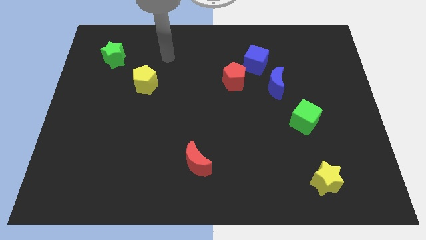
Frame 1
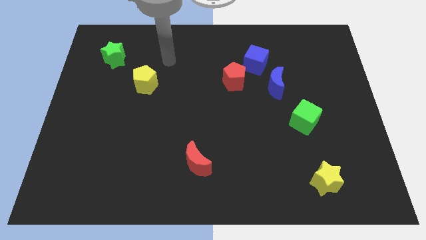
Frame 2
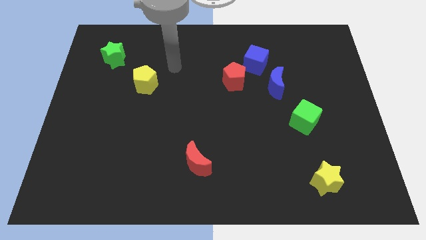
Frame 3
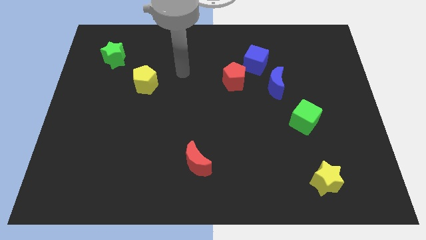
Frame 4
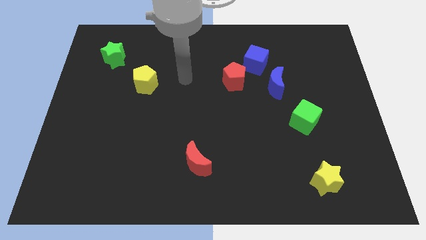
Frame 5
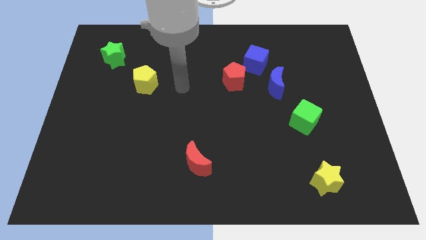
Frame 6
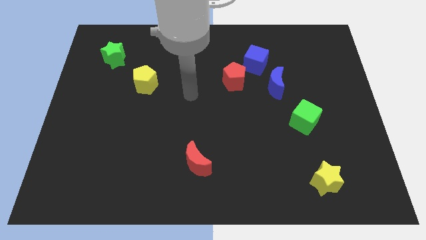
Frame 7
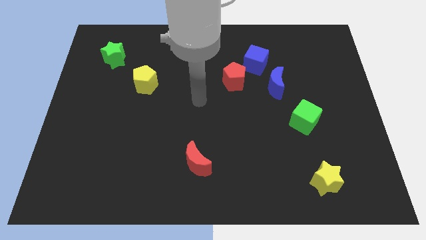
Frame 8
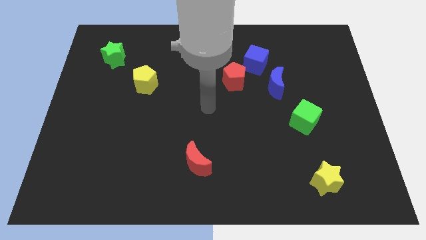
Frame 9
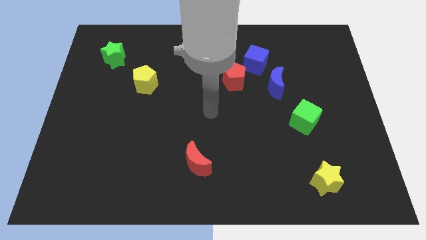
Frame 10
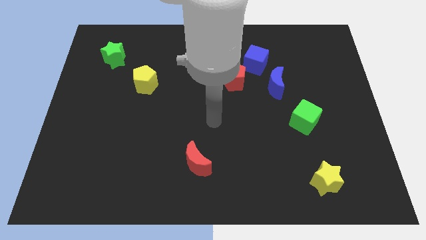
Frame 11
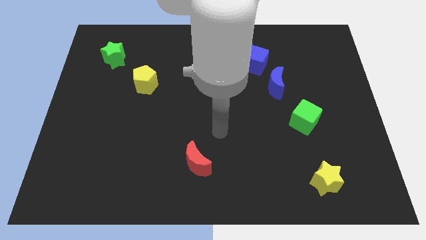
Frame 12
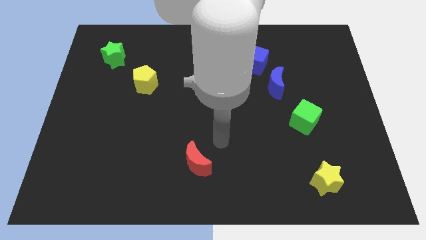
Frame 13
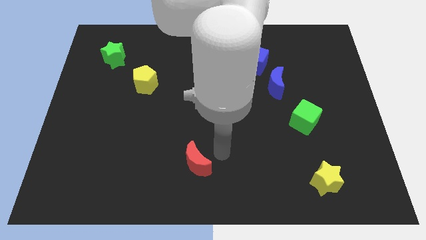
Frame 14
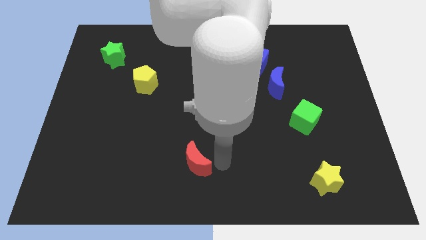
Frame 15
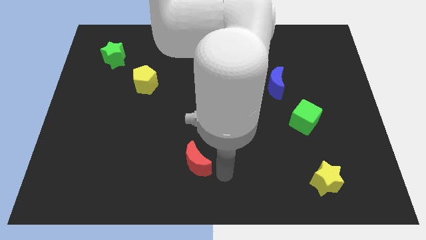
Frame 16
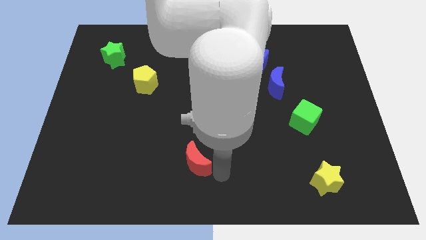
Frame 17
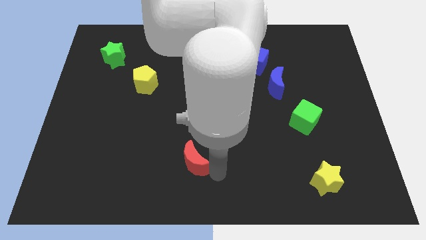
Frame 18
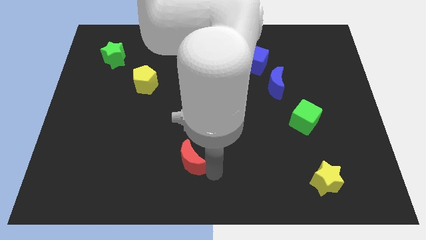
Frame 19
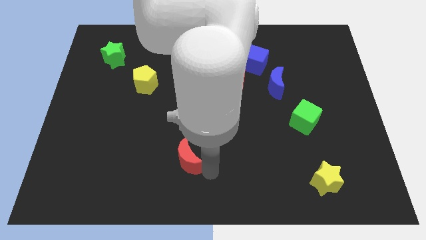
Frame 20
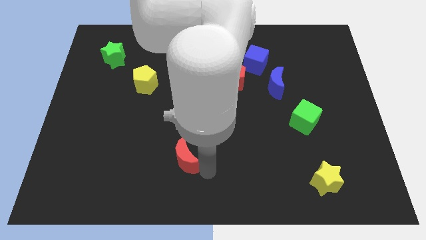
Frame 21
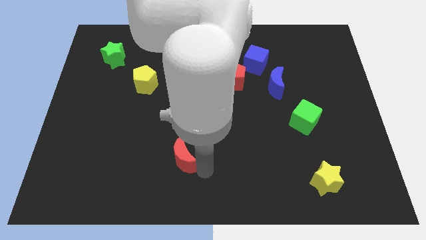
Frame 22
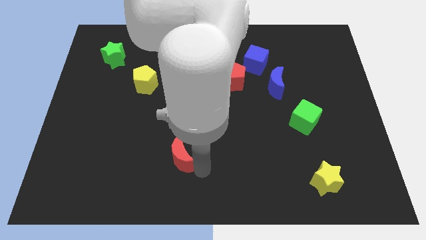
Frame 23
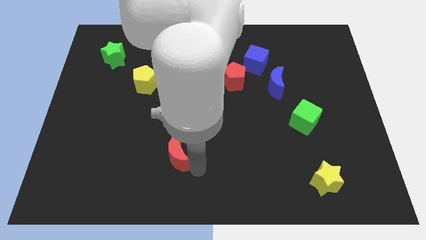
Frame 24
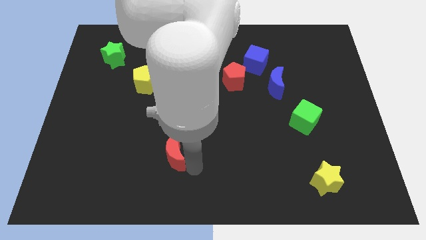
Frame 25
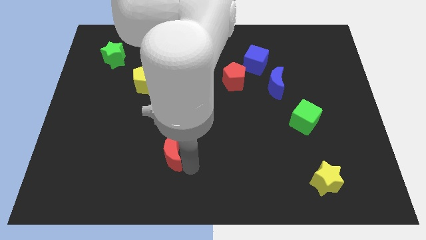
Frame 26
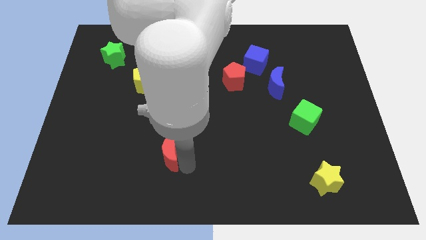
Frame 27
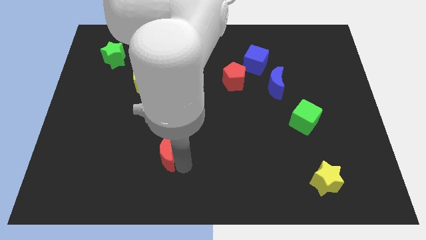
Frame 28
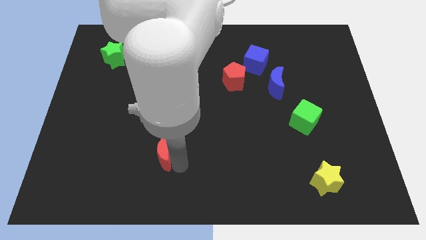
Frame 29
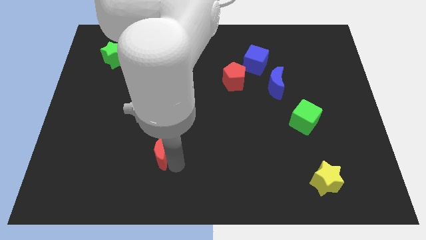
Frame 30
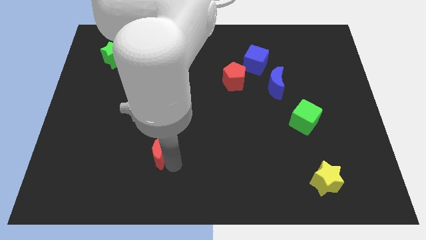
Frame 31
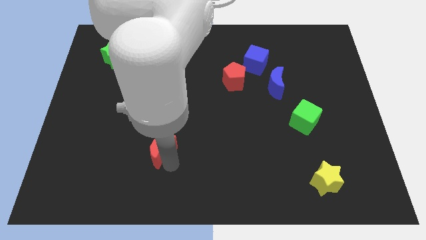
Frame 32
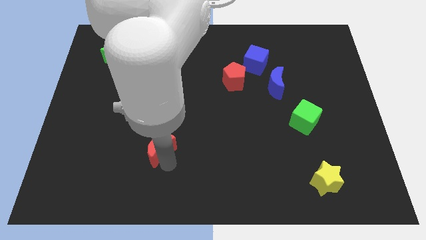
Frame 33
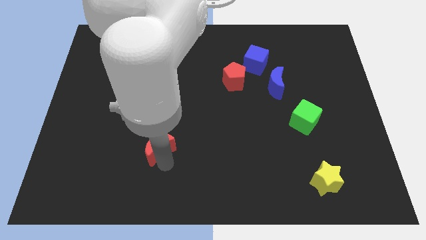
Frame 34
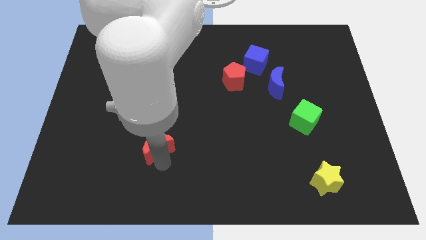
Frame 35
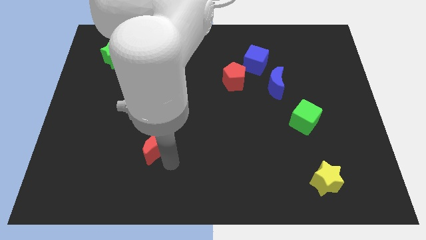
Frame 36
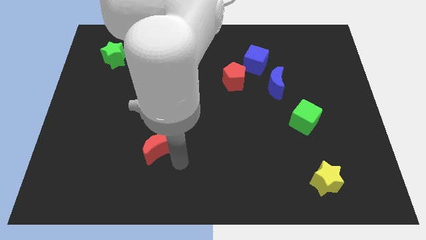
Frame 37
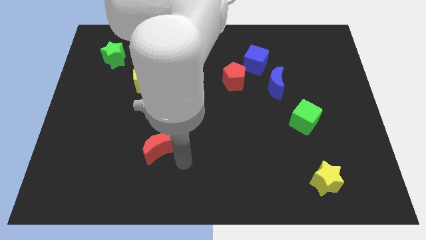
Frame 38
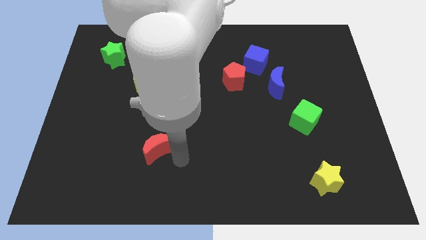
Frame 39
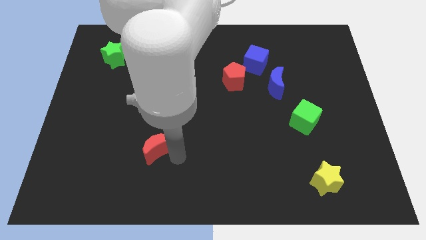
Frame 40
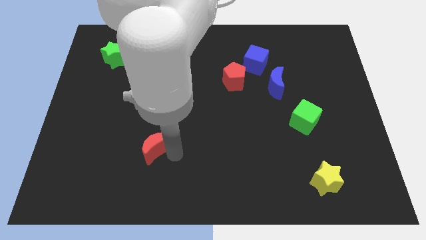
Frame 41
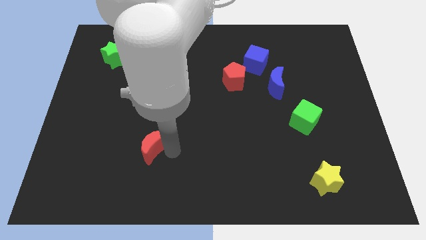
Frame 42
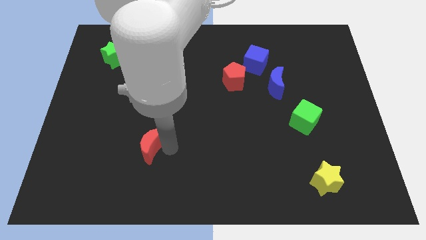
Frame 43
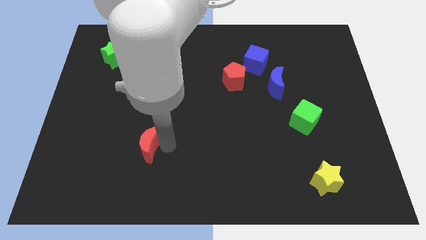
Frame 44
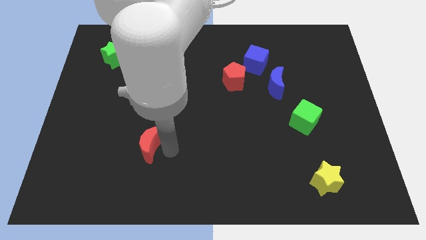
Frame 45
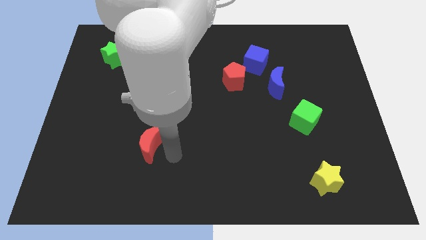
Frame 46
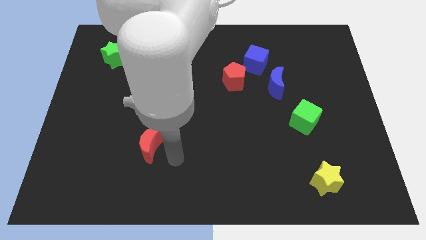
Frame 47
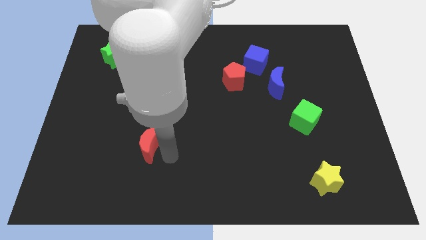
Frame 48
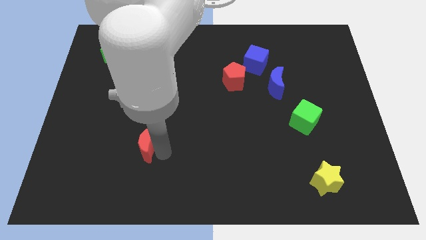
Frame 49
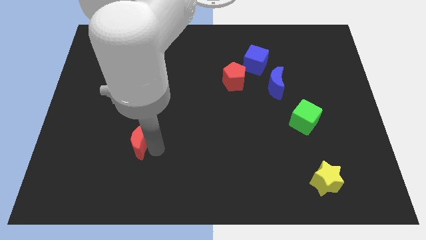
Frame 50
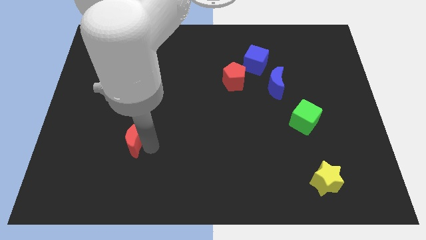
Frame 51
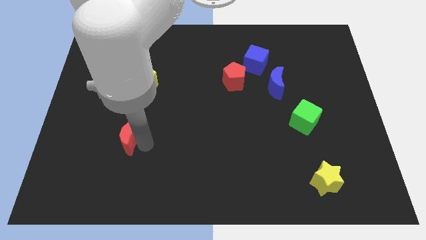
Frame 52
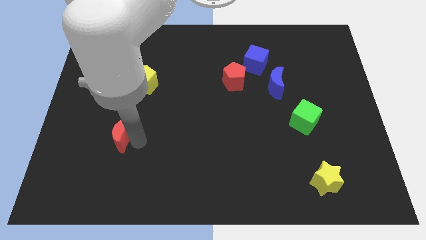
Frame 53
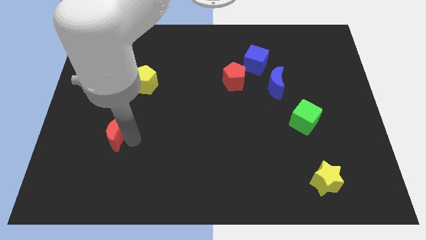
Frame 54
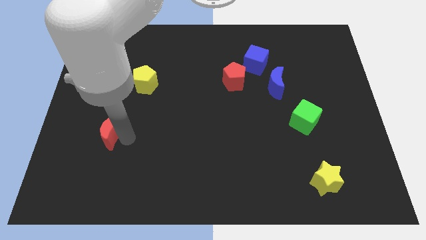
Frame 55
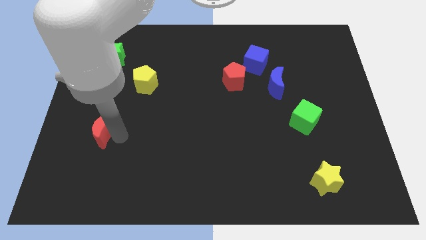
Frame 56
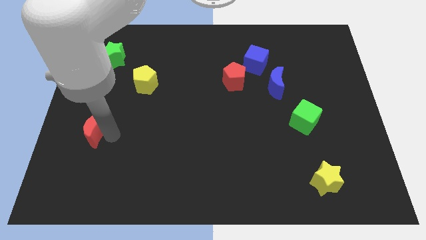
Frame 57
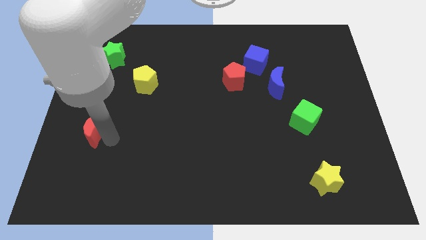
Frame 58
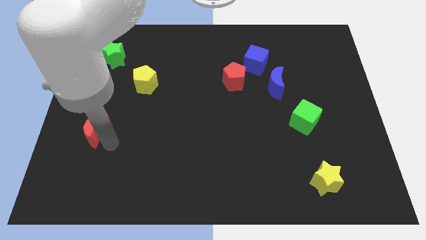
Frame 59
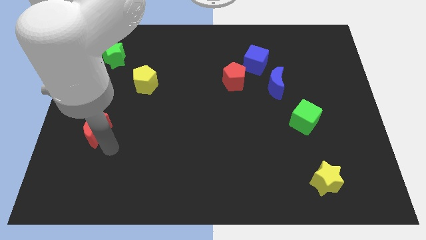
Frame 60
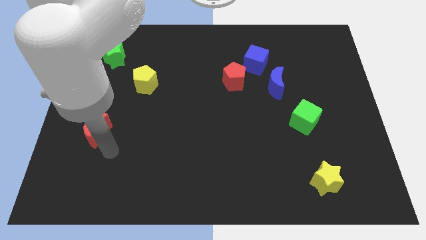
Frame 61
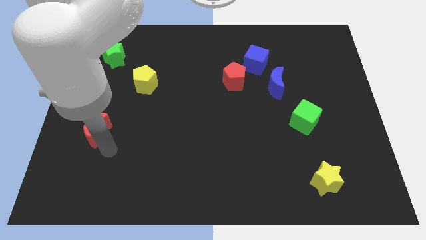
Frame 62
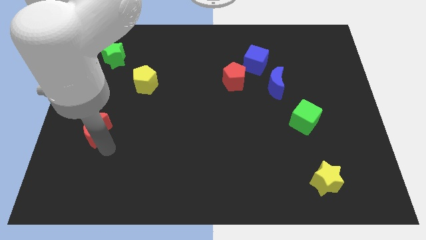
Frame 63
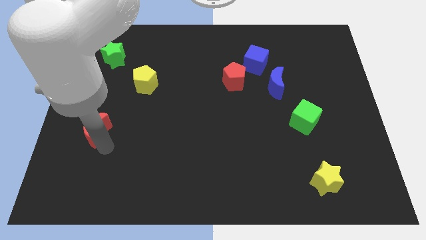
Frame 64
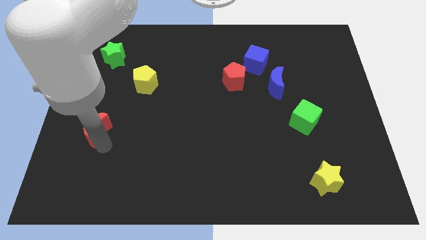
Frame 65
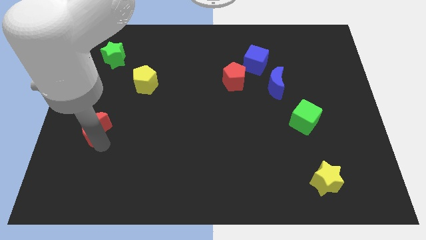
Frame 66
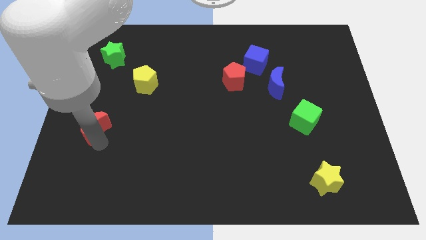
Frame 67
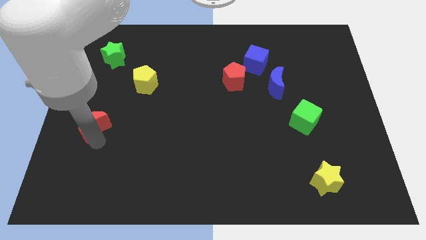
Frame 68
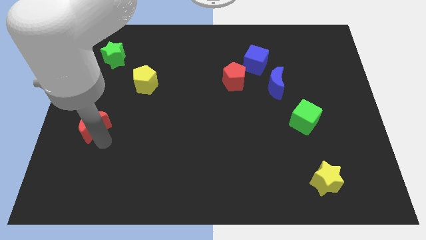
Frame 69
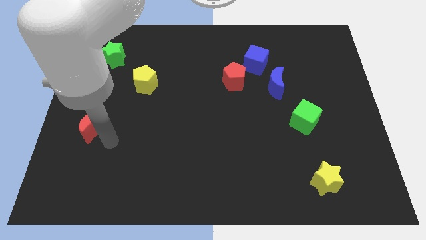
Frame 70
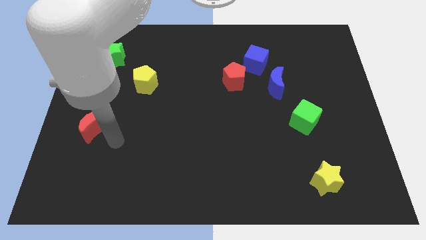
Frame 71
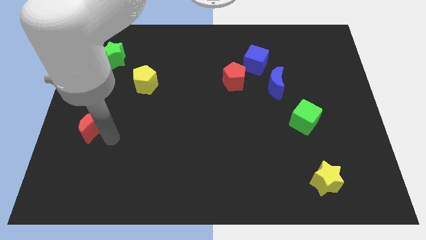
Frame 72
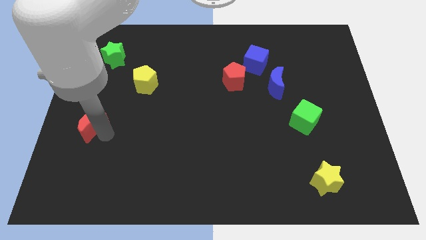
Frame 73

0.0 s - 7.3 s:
slide the red moon to the left side of the board
